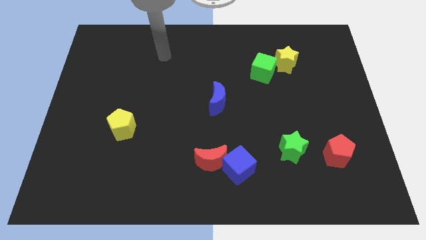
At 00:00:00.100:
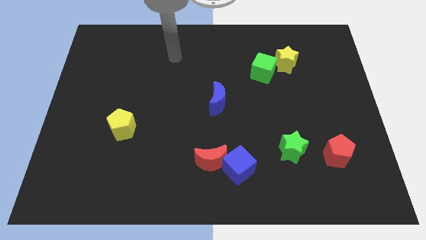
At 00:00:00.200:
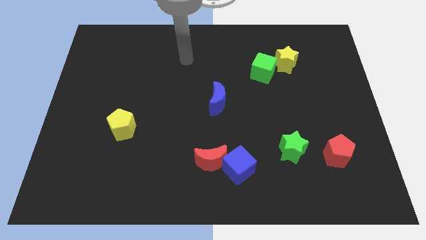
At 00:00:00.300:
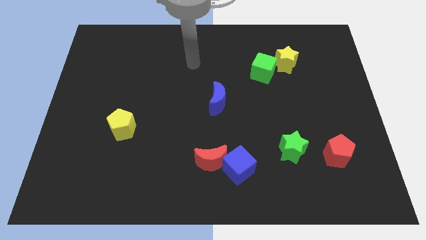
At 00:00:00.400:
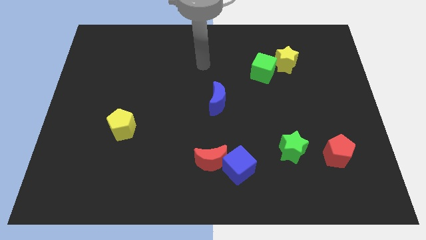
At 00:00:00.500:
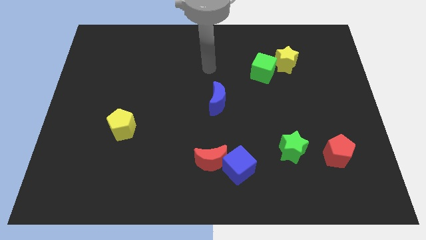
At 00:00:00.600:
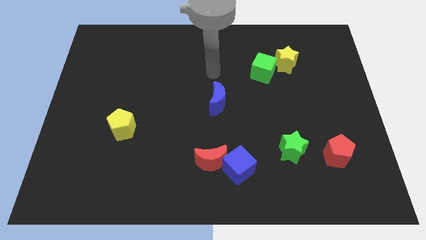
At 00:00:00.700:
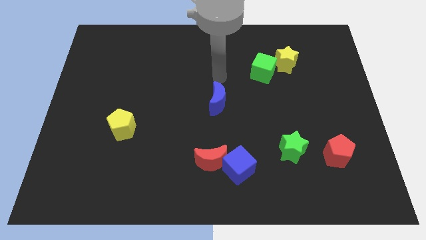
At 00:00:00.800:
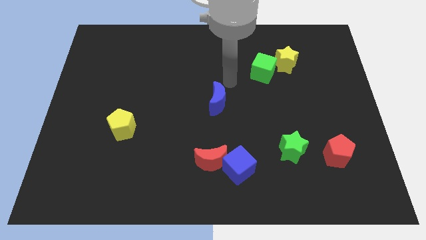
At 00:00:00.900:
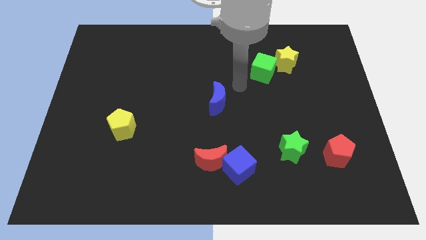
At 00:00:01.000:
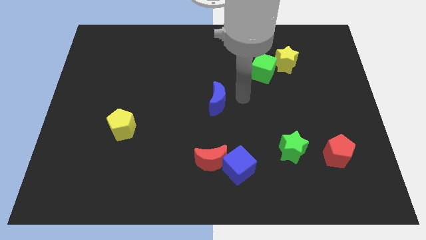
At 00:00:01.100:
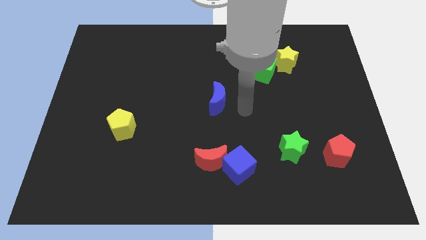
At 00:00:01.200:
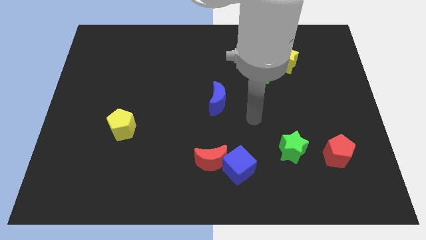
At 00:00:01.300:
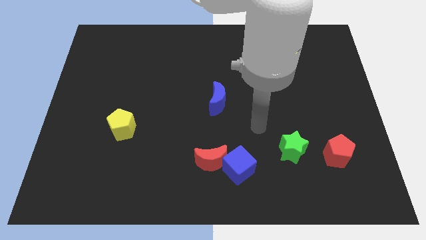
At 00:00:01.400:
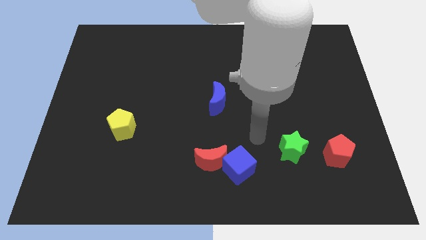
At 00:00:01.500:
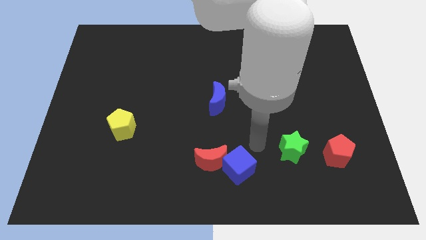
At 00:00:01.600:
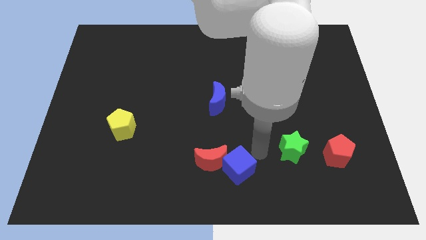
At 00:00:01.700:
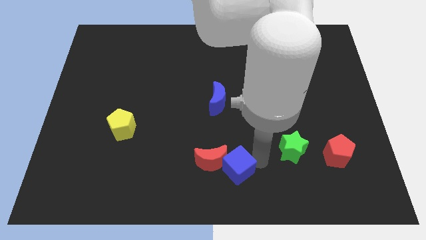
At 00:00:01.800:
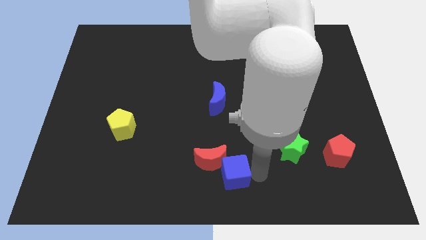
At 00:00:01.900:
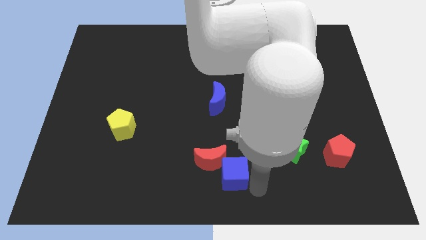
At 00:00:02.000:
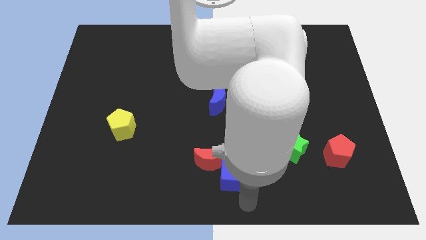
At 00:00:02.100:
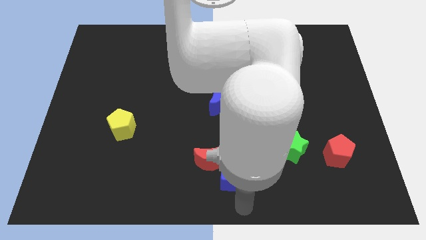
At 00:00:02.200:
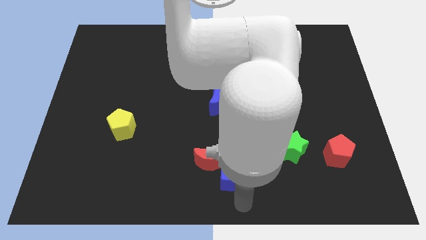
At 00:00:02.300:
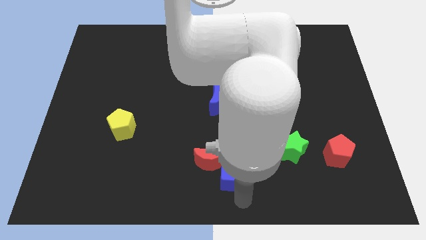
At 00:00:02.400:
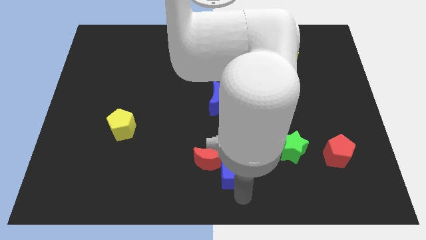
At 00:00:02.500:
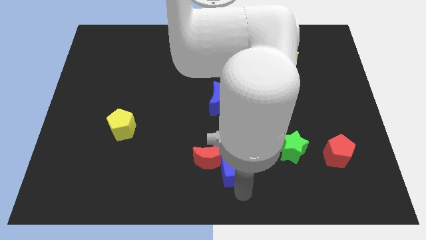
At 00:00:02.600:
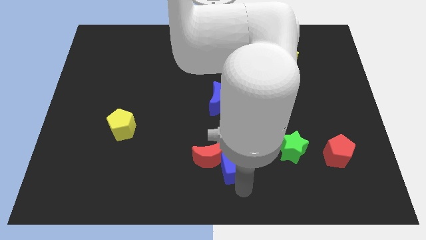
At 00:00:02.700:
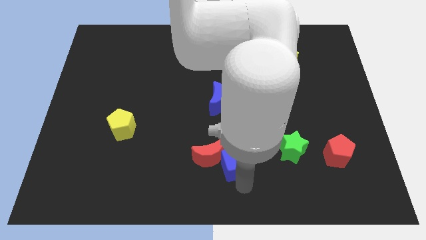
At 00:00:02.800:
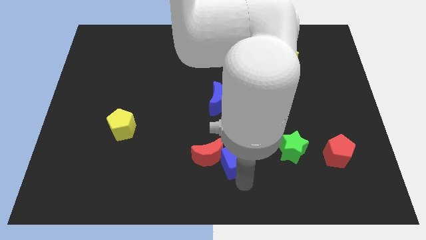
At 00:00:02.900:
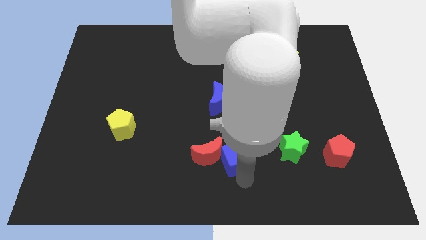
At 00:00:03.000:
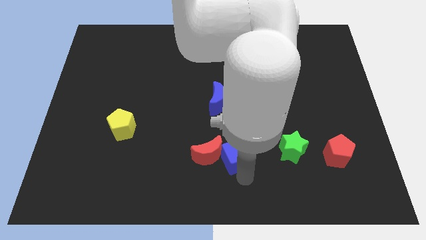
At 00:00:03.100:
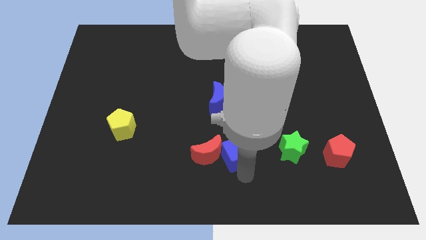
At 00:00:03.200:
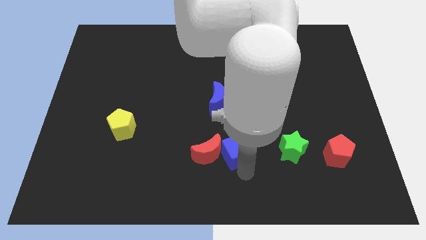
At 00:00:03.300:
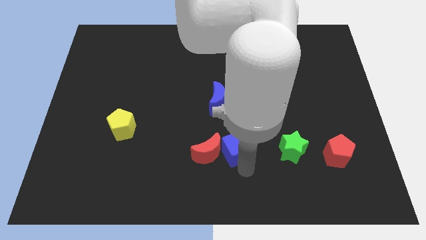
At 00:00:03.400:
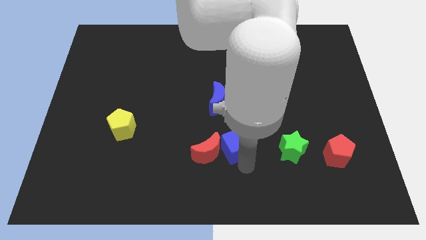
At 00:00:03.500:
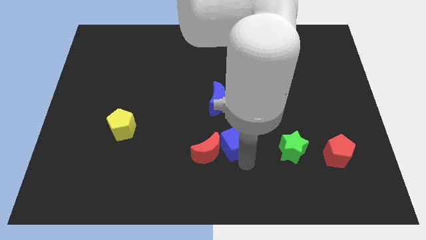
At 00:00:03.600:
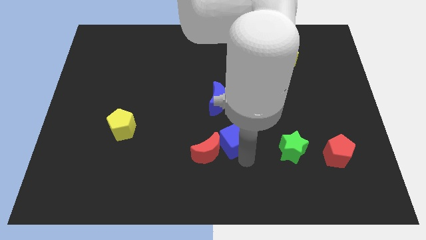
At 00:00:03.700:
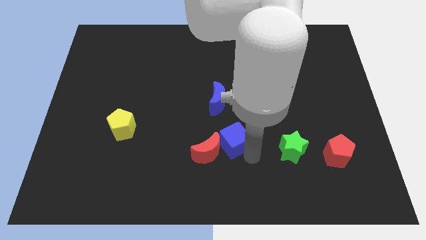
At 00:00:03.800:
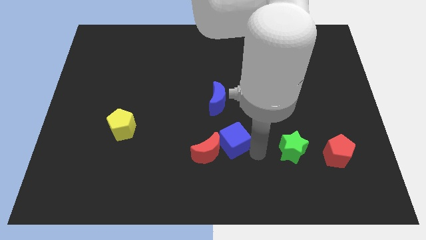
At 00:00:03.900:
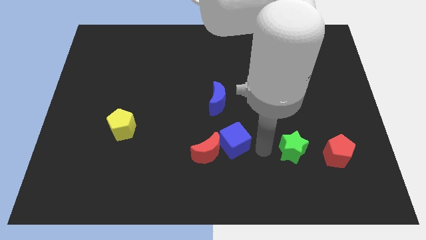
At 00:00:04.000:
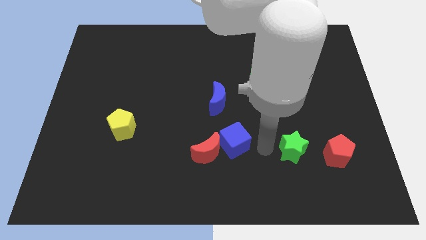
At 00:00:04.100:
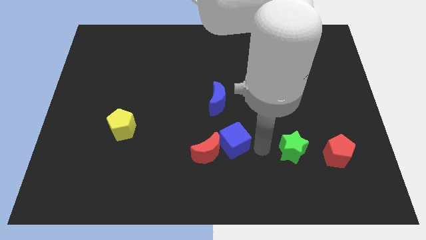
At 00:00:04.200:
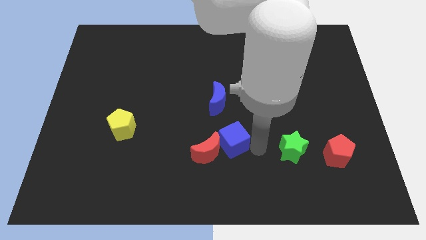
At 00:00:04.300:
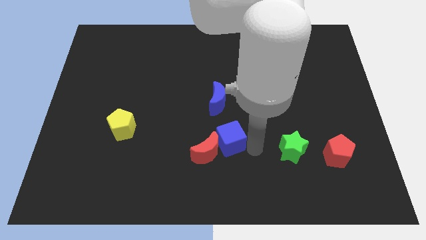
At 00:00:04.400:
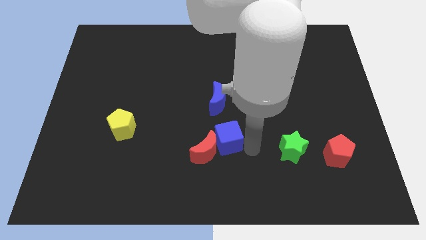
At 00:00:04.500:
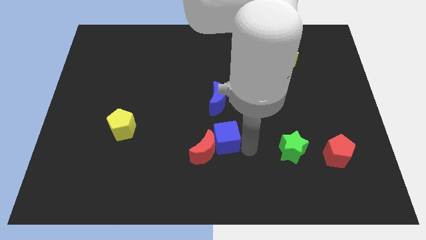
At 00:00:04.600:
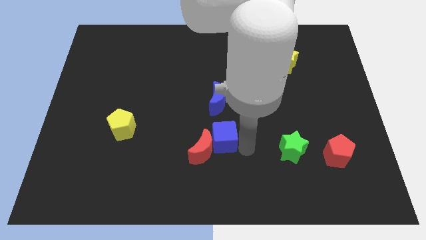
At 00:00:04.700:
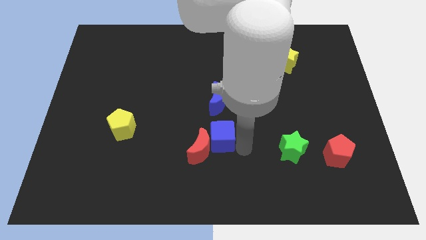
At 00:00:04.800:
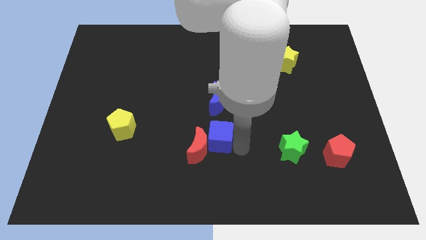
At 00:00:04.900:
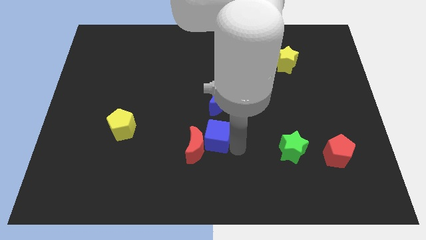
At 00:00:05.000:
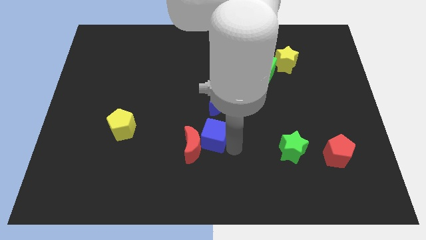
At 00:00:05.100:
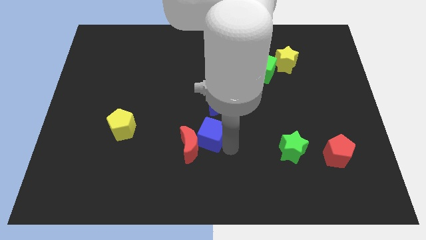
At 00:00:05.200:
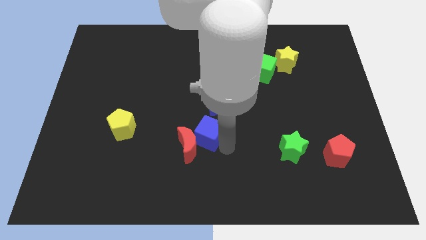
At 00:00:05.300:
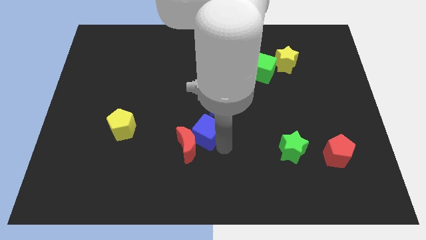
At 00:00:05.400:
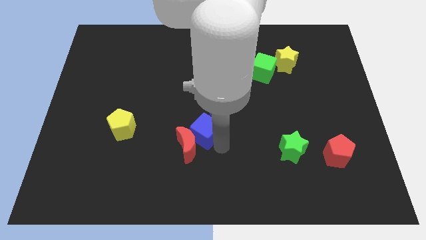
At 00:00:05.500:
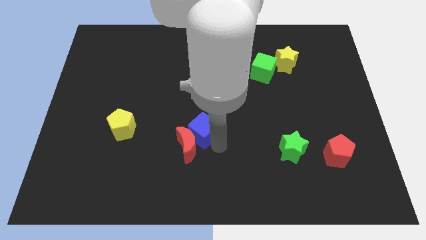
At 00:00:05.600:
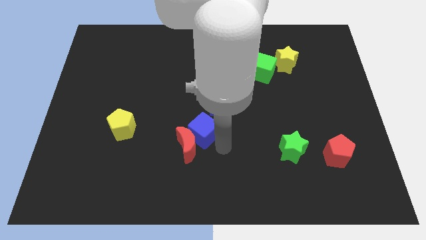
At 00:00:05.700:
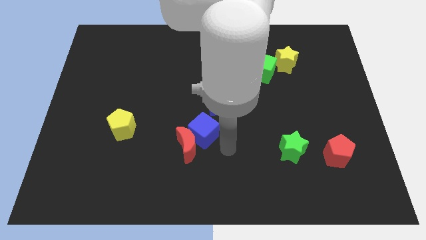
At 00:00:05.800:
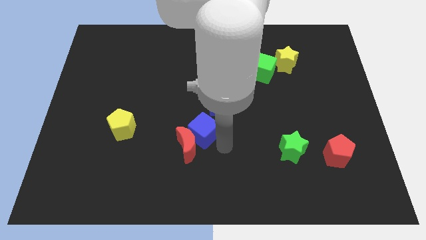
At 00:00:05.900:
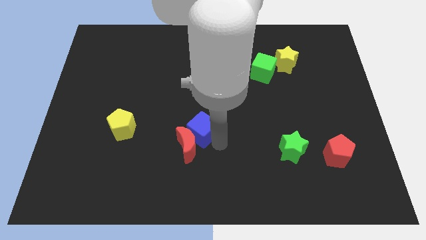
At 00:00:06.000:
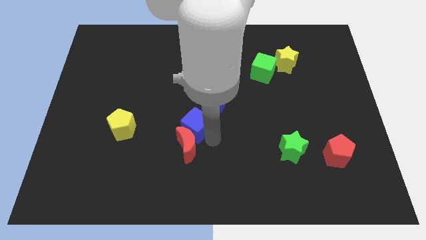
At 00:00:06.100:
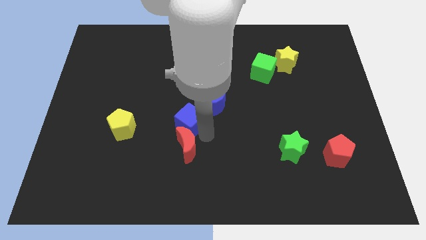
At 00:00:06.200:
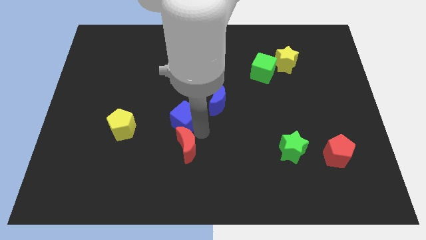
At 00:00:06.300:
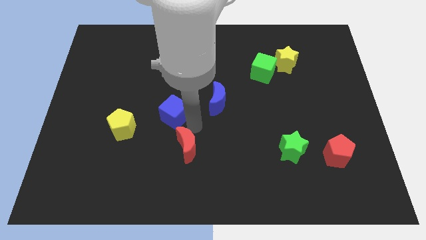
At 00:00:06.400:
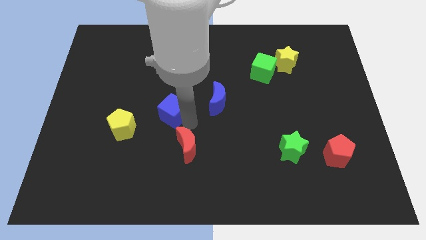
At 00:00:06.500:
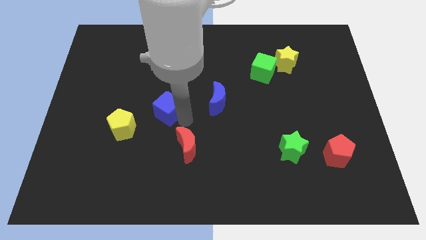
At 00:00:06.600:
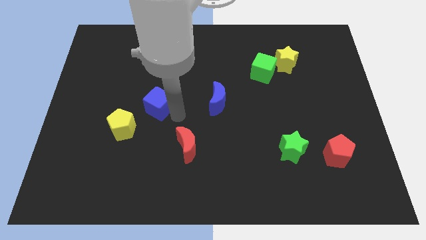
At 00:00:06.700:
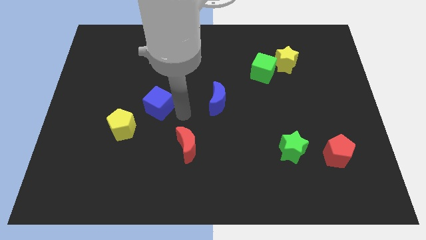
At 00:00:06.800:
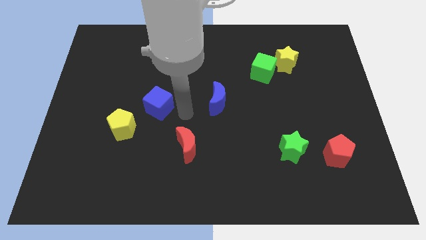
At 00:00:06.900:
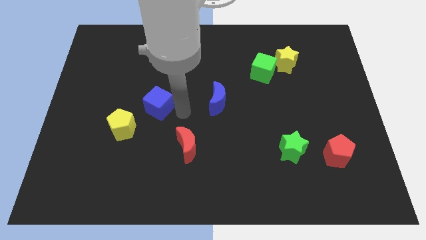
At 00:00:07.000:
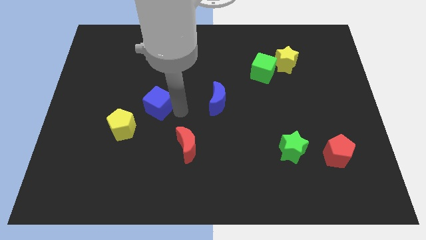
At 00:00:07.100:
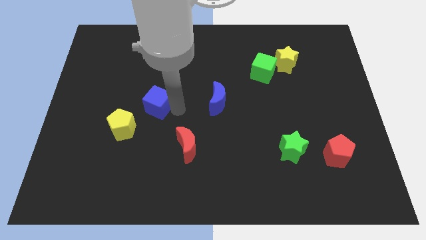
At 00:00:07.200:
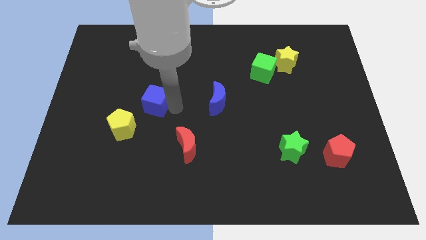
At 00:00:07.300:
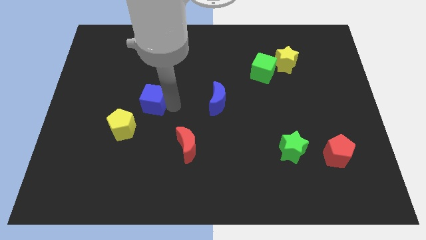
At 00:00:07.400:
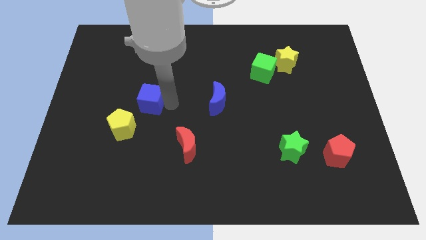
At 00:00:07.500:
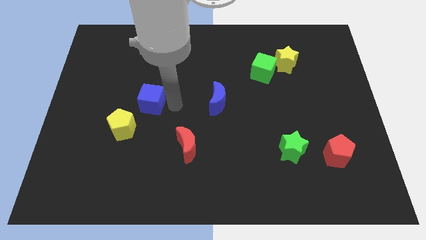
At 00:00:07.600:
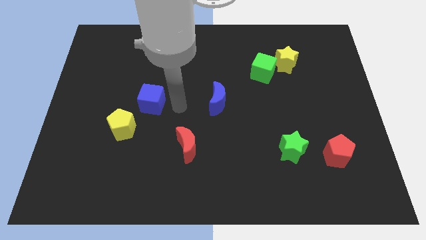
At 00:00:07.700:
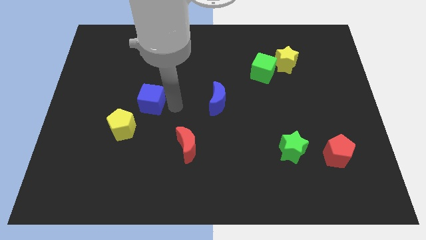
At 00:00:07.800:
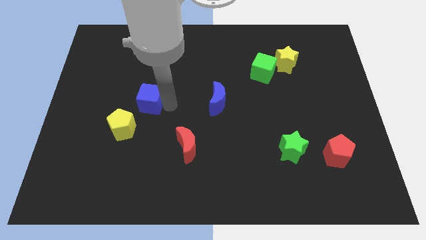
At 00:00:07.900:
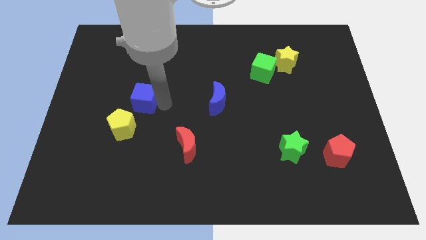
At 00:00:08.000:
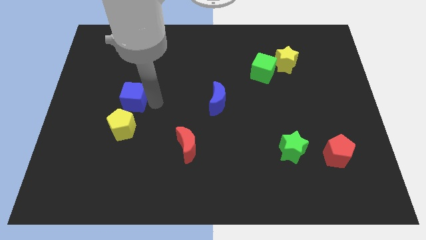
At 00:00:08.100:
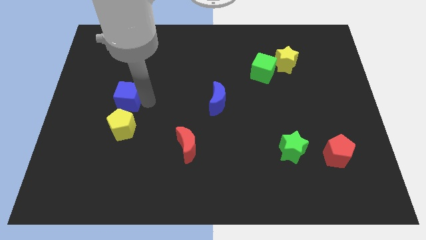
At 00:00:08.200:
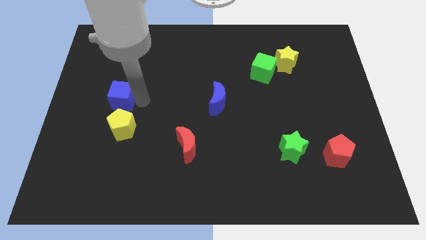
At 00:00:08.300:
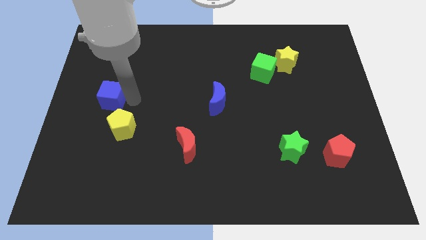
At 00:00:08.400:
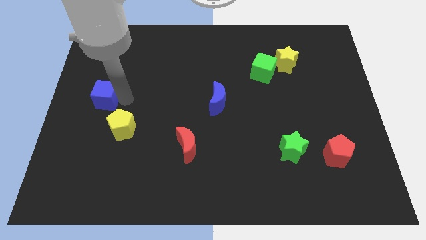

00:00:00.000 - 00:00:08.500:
put the blue cube to the left side of the board
